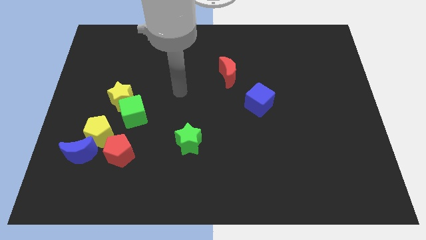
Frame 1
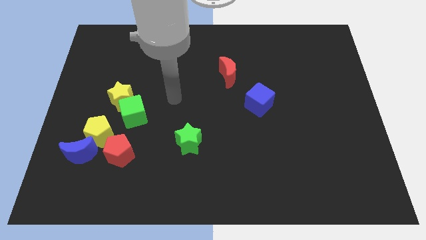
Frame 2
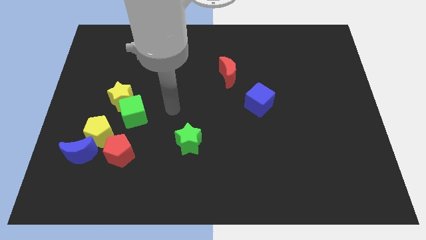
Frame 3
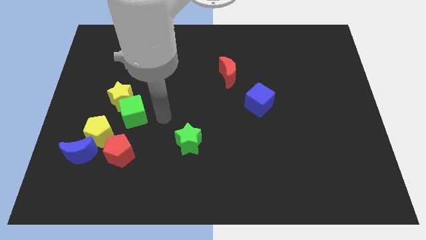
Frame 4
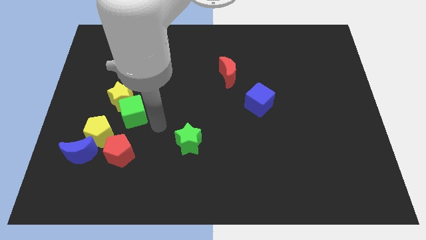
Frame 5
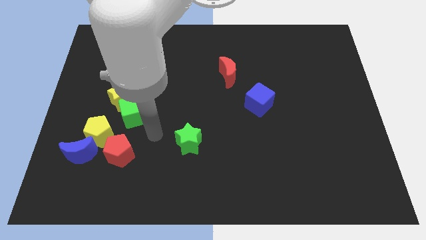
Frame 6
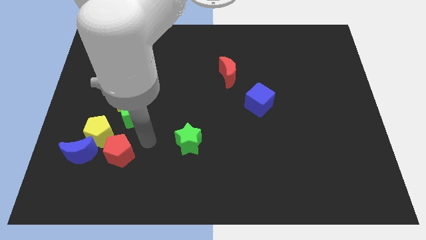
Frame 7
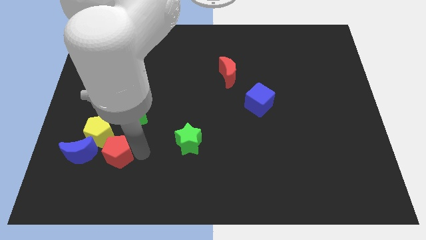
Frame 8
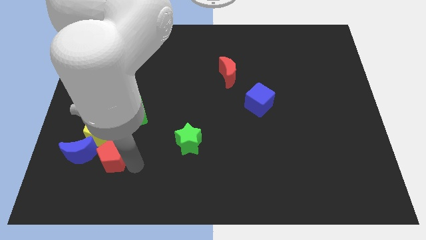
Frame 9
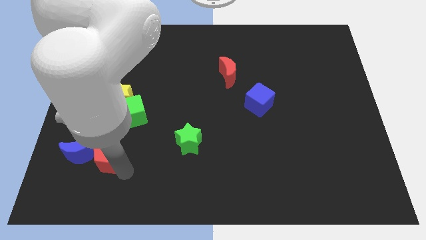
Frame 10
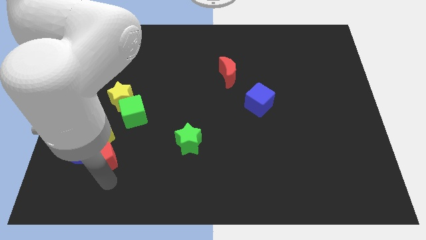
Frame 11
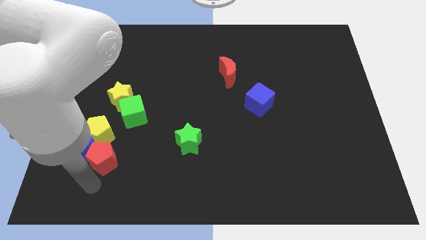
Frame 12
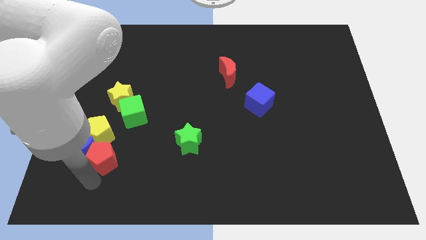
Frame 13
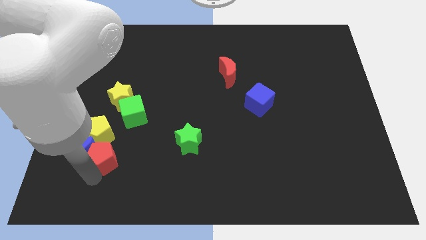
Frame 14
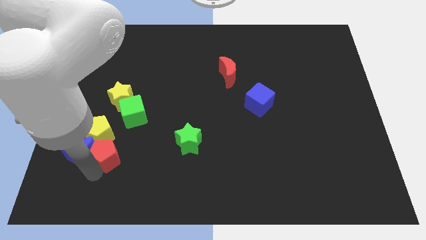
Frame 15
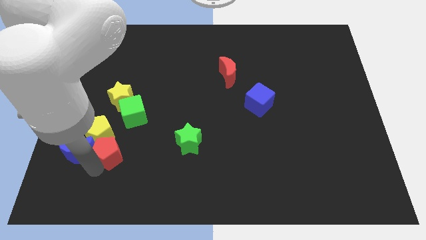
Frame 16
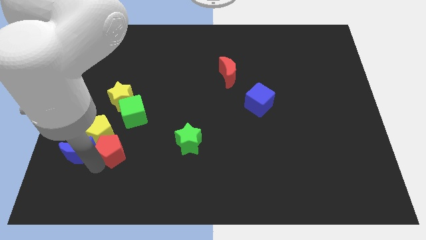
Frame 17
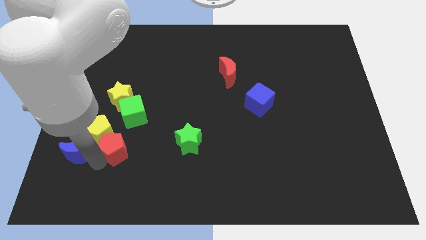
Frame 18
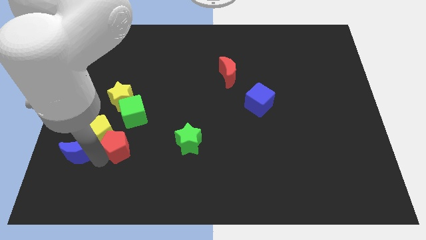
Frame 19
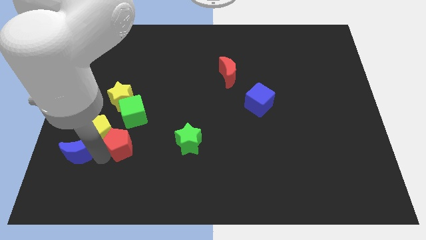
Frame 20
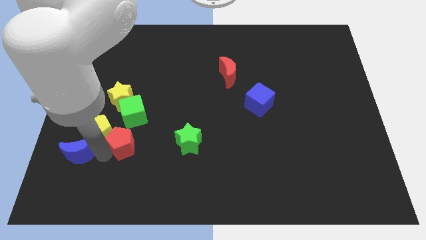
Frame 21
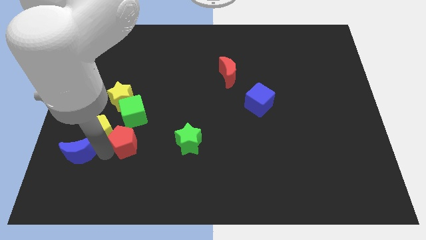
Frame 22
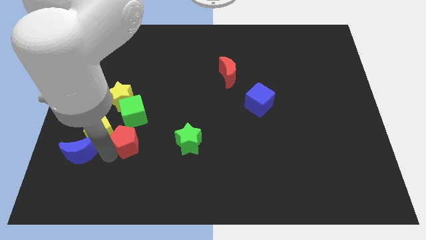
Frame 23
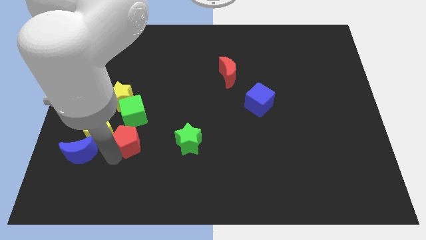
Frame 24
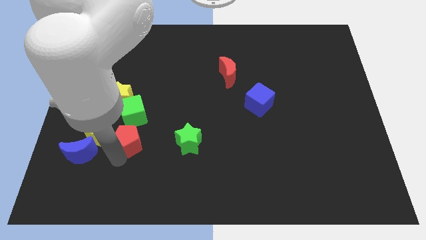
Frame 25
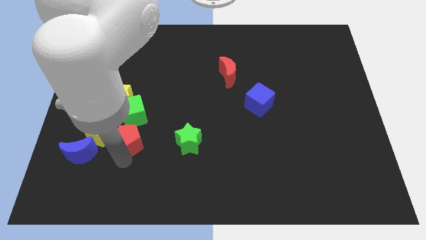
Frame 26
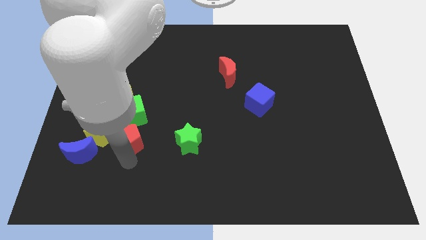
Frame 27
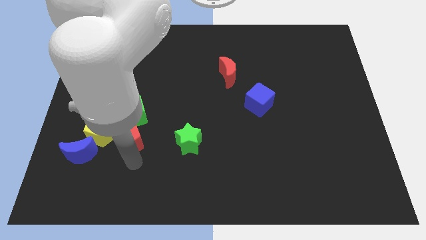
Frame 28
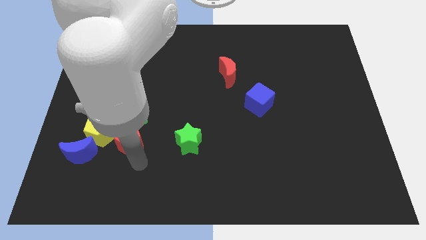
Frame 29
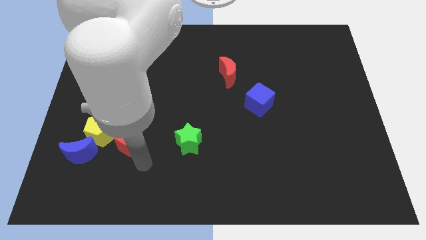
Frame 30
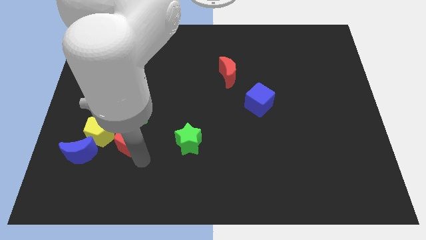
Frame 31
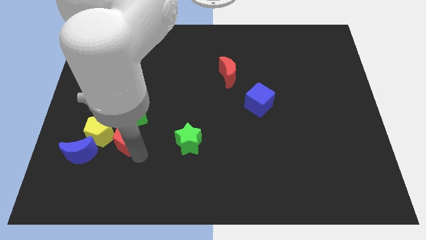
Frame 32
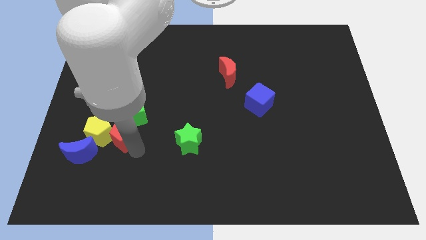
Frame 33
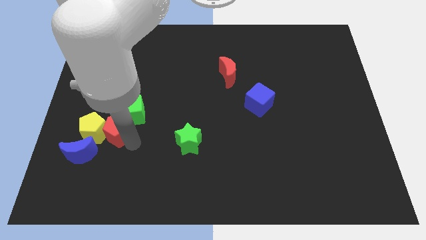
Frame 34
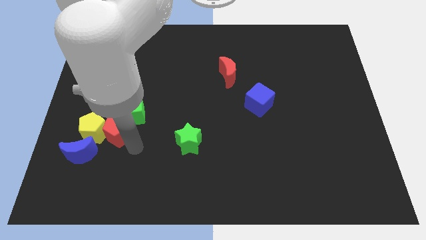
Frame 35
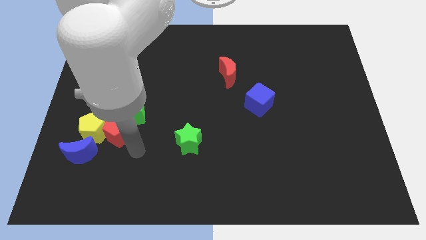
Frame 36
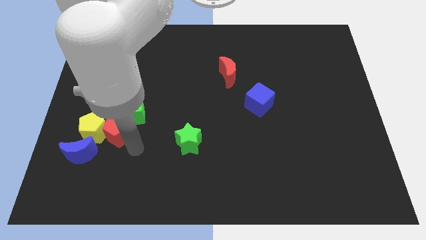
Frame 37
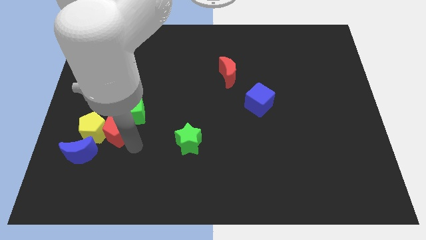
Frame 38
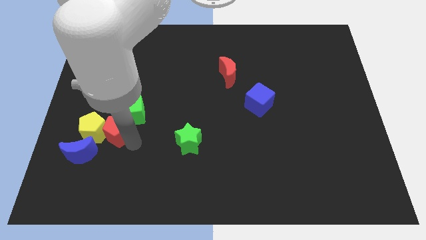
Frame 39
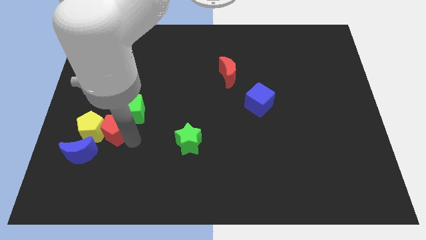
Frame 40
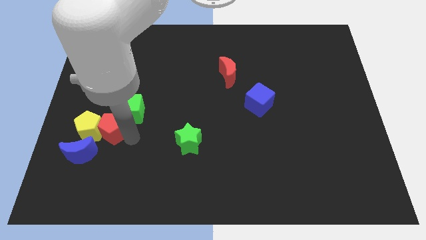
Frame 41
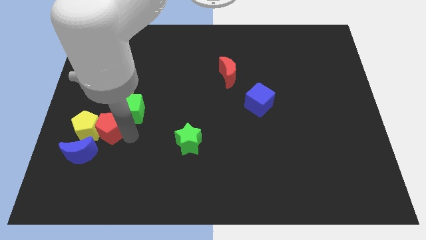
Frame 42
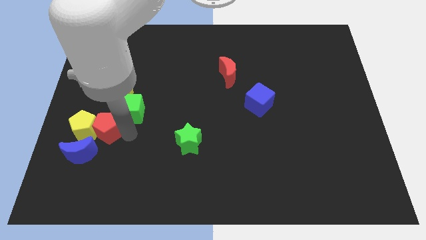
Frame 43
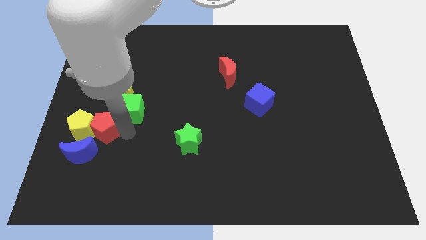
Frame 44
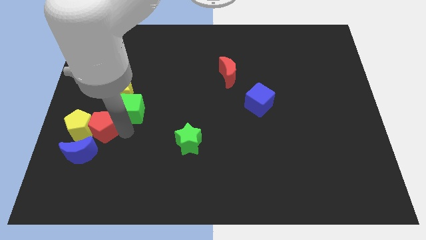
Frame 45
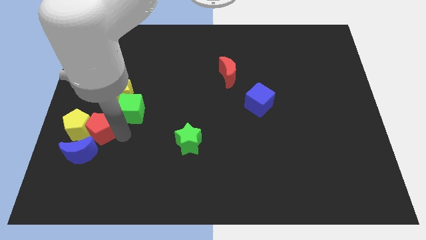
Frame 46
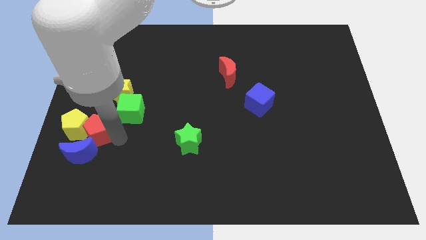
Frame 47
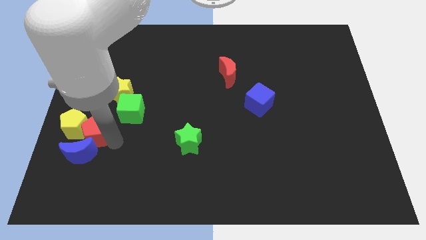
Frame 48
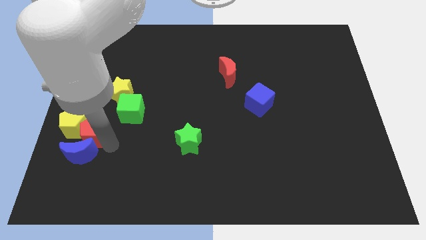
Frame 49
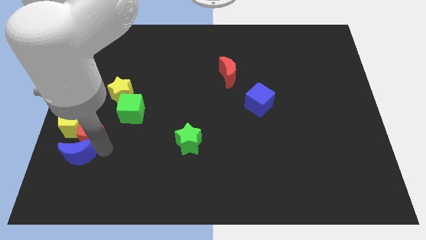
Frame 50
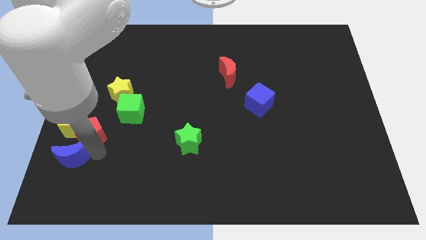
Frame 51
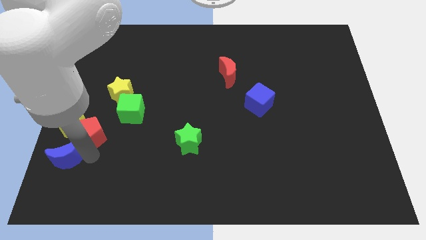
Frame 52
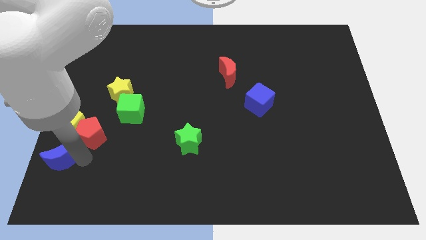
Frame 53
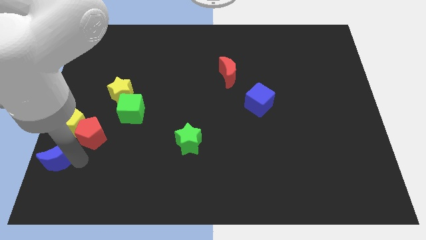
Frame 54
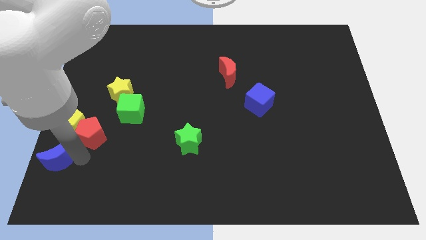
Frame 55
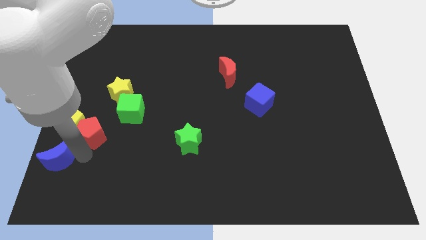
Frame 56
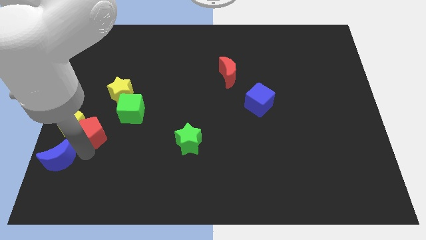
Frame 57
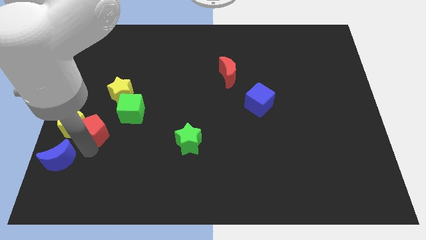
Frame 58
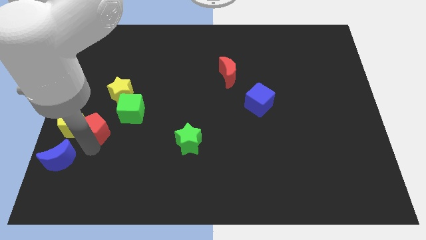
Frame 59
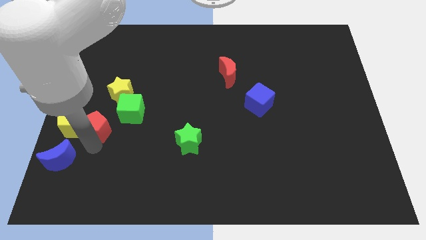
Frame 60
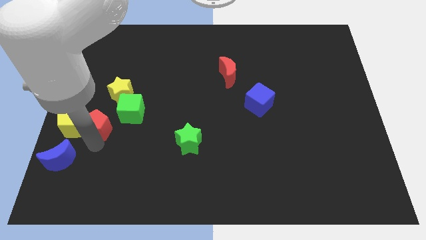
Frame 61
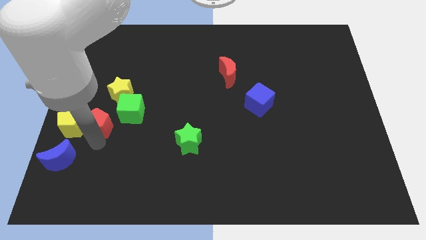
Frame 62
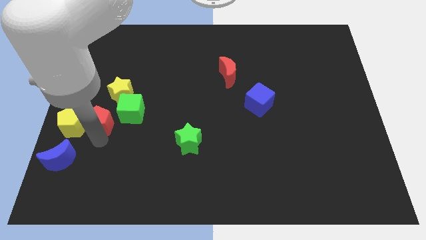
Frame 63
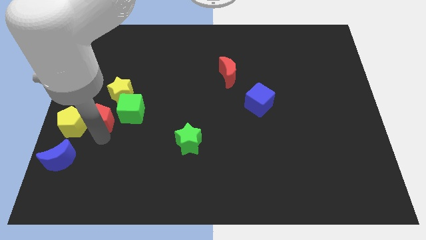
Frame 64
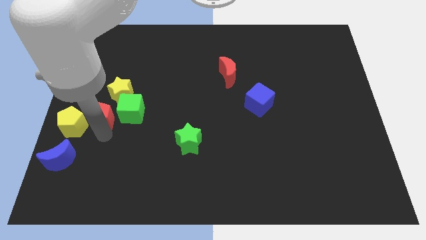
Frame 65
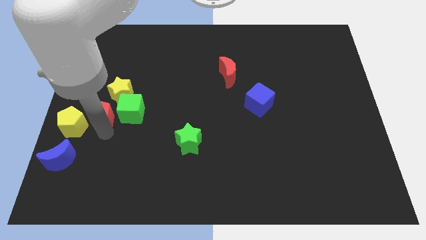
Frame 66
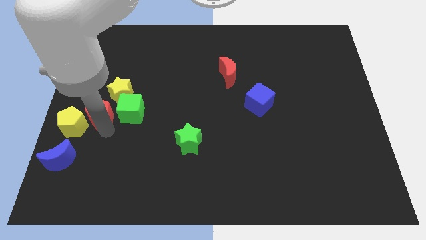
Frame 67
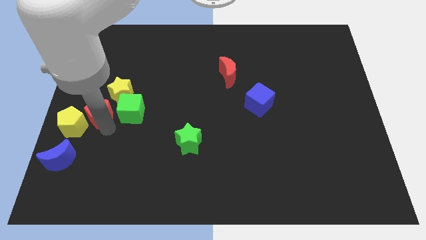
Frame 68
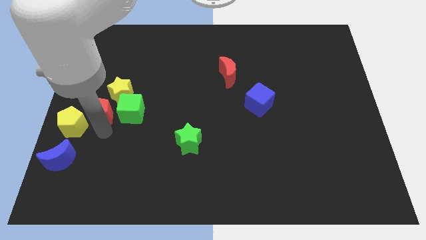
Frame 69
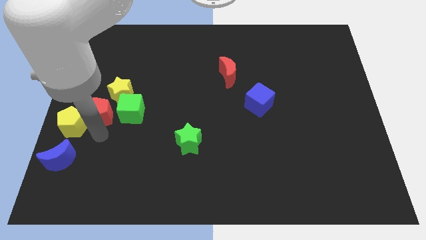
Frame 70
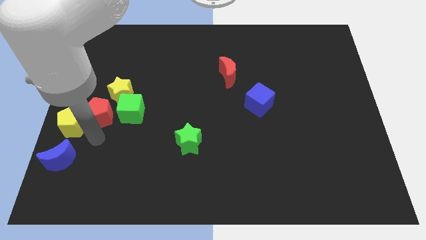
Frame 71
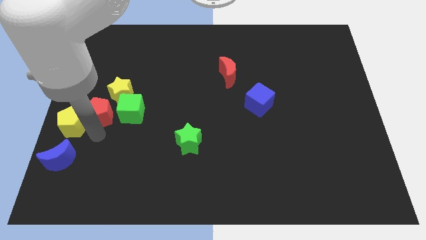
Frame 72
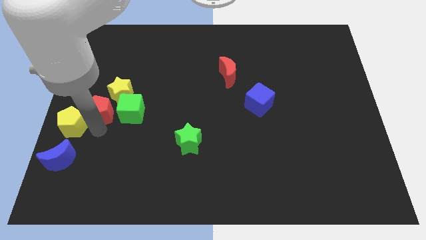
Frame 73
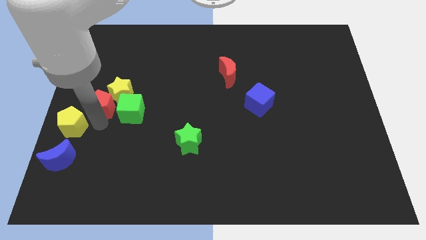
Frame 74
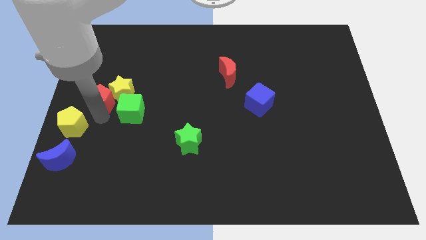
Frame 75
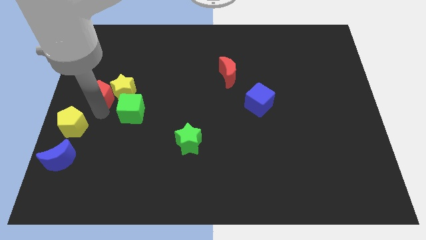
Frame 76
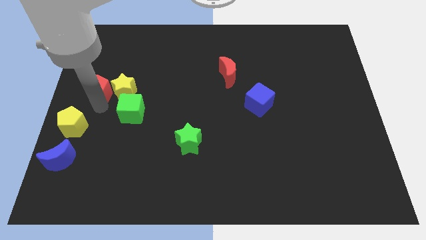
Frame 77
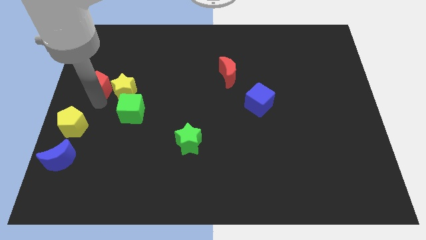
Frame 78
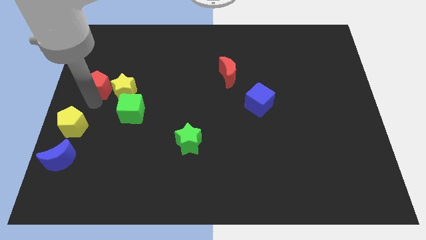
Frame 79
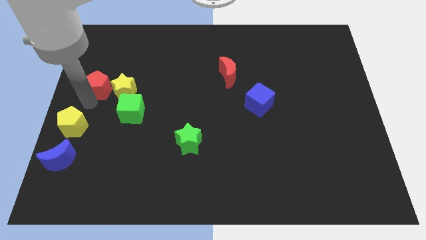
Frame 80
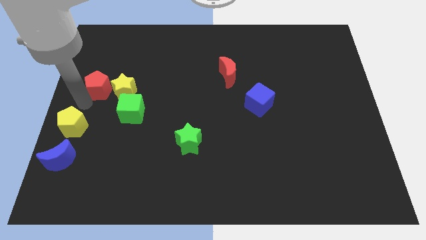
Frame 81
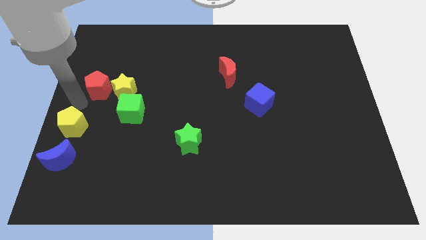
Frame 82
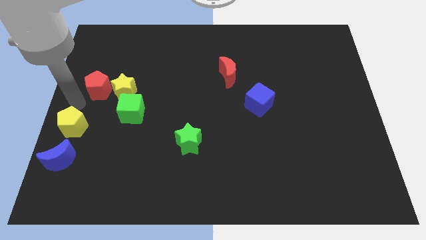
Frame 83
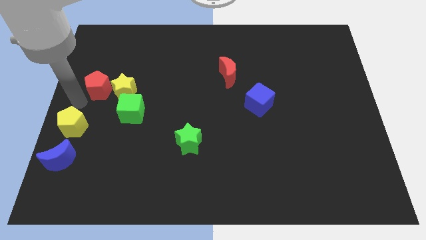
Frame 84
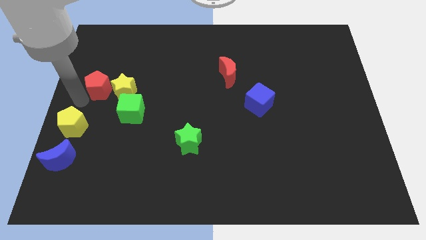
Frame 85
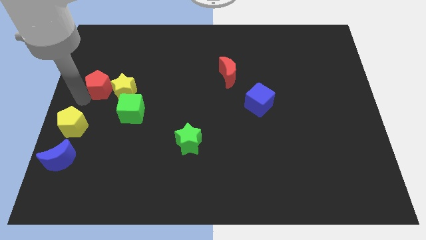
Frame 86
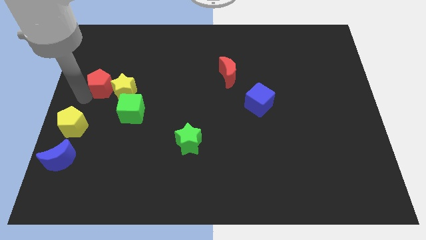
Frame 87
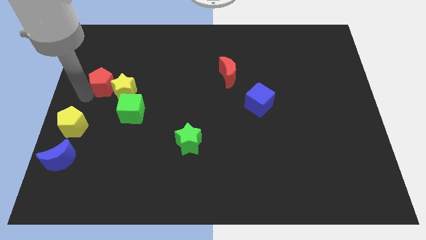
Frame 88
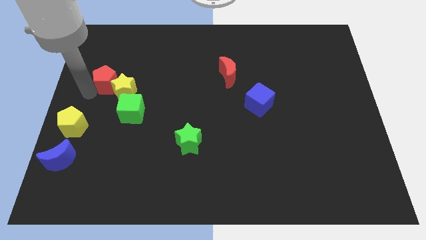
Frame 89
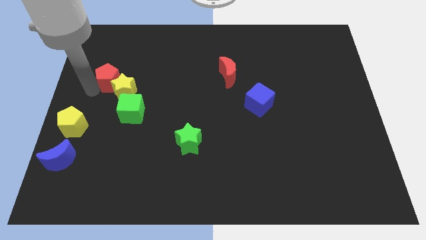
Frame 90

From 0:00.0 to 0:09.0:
slide the red pentagon above the yellow star
